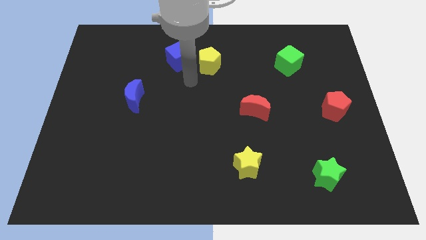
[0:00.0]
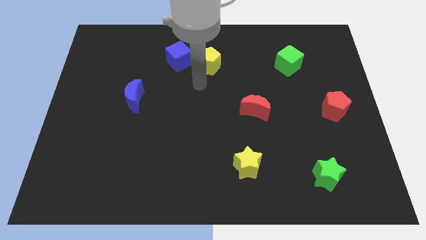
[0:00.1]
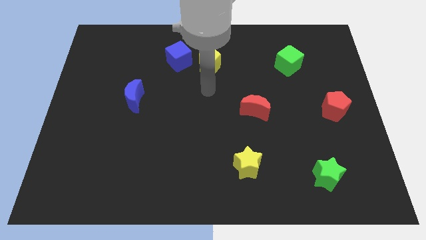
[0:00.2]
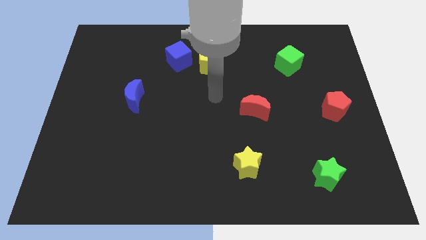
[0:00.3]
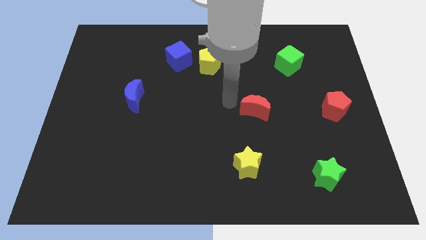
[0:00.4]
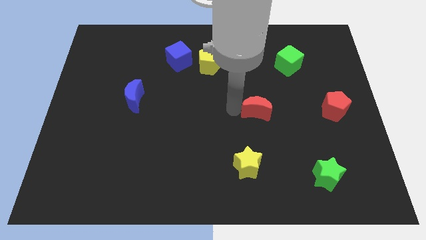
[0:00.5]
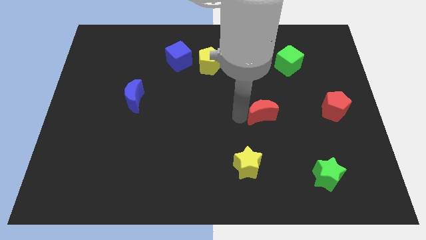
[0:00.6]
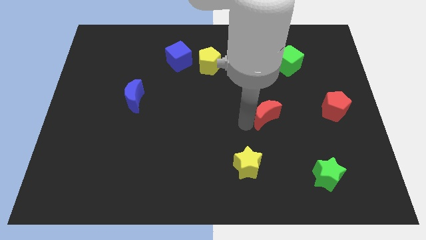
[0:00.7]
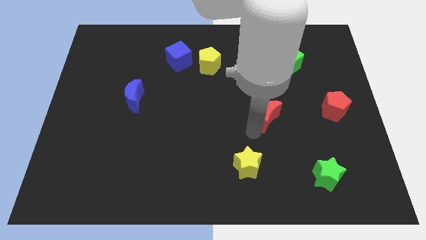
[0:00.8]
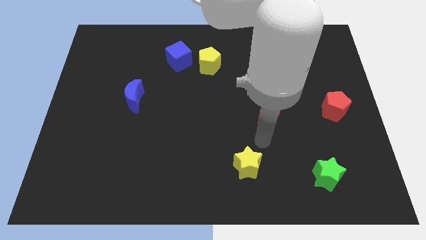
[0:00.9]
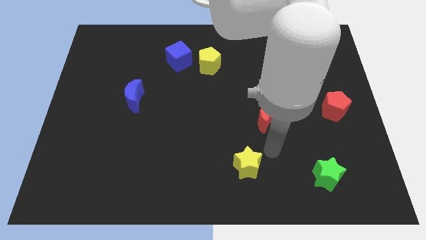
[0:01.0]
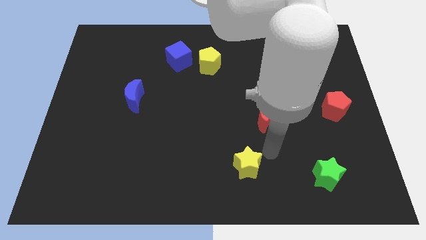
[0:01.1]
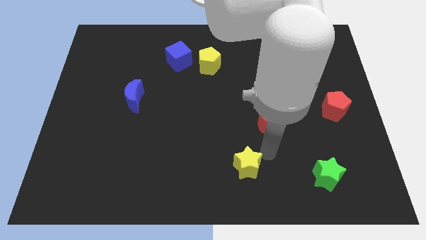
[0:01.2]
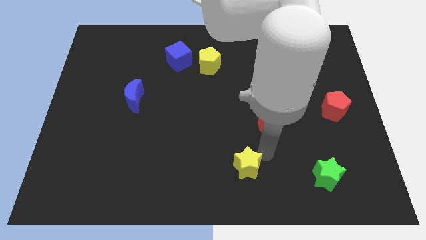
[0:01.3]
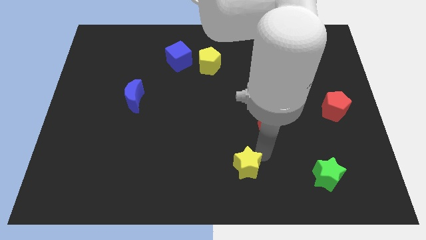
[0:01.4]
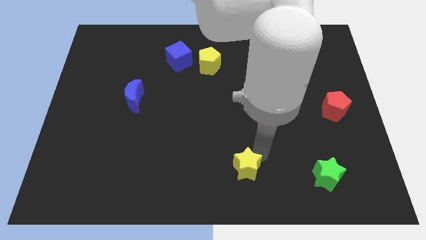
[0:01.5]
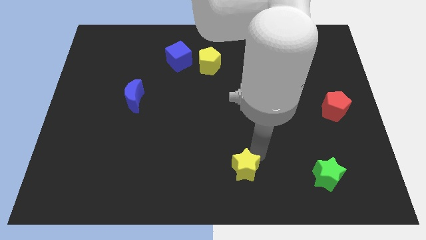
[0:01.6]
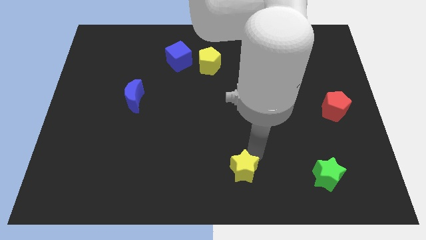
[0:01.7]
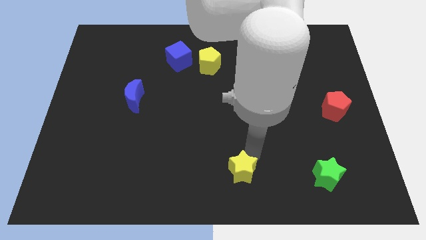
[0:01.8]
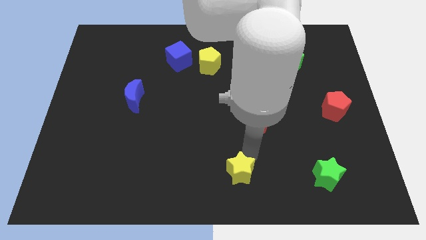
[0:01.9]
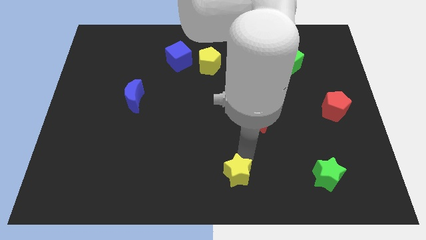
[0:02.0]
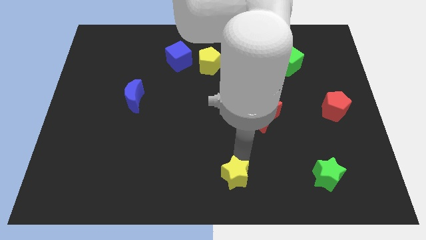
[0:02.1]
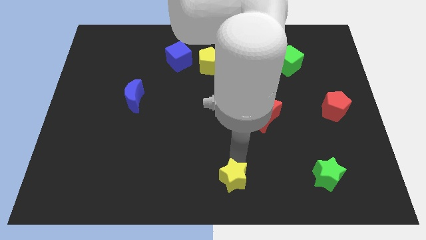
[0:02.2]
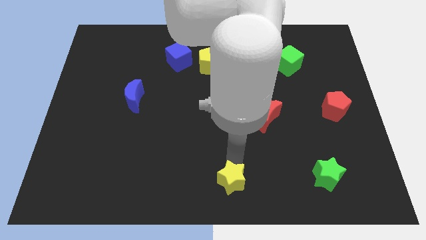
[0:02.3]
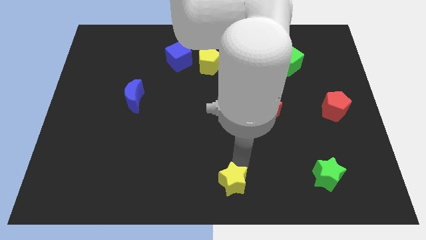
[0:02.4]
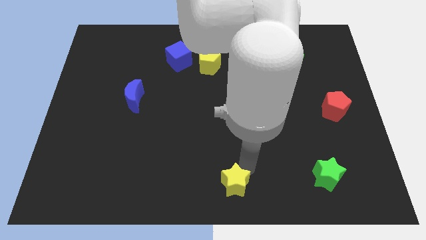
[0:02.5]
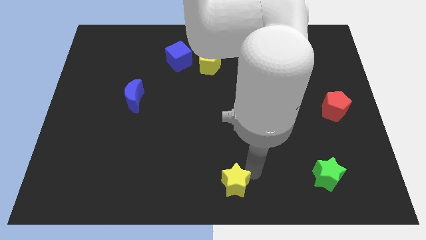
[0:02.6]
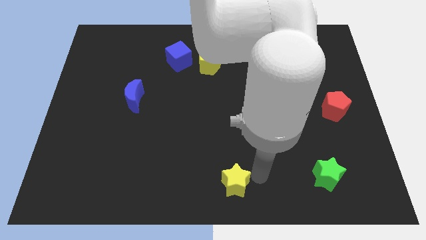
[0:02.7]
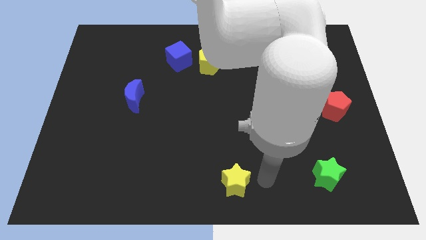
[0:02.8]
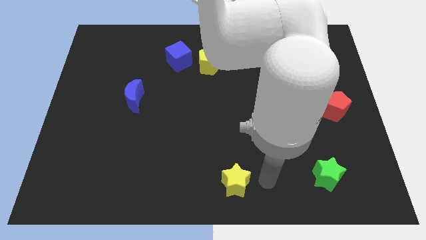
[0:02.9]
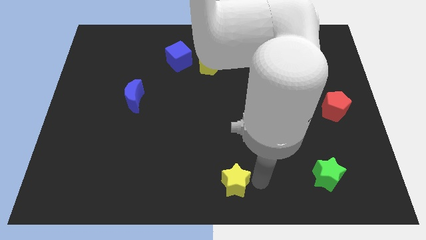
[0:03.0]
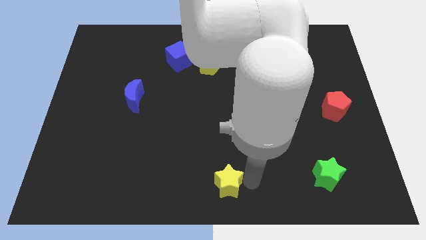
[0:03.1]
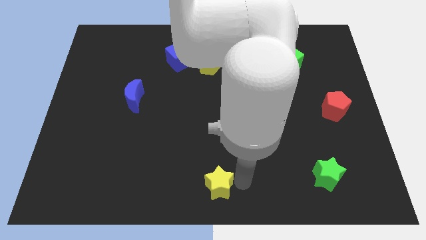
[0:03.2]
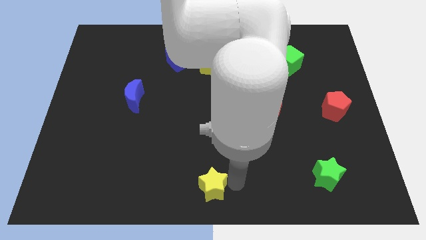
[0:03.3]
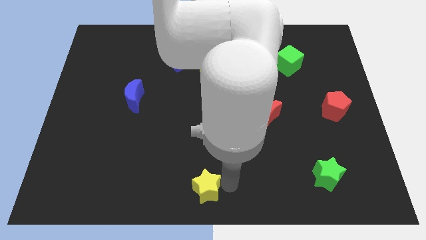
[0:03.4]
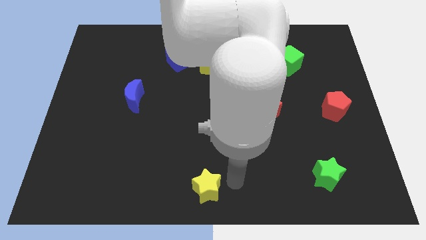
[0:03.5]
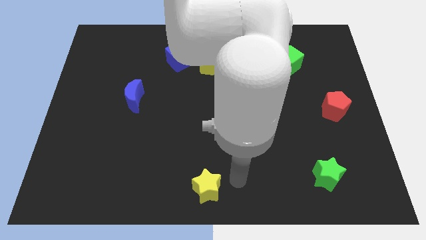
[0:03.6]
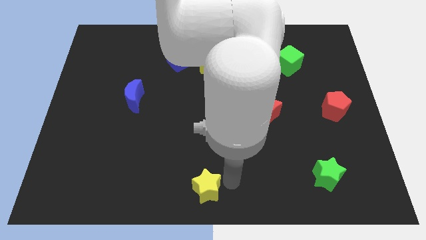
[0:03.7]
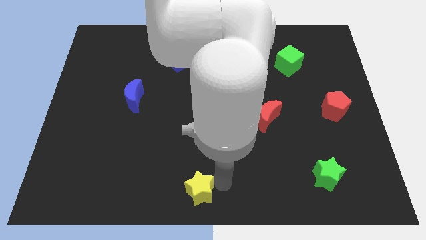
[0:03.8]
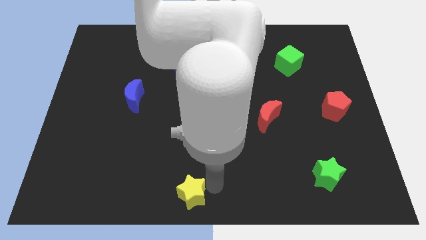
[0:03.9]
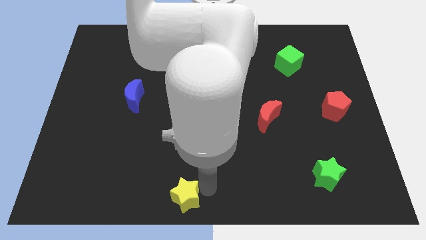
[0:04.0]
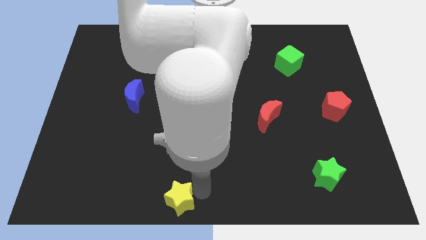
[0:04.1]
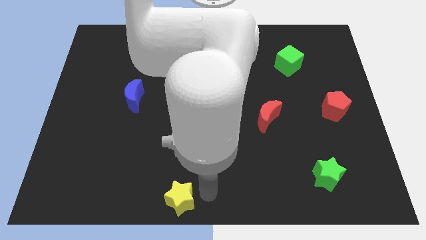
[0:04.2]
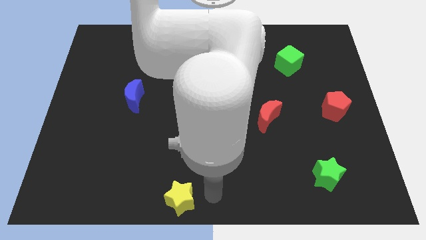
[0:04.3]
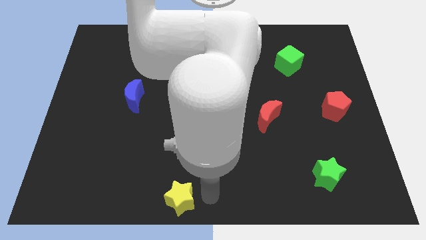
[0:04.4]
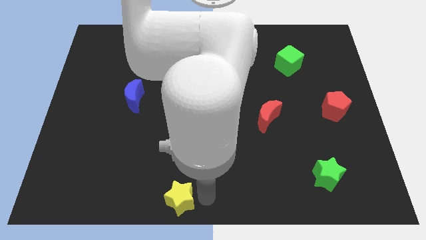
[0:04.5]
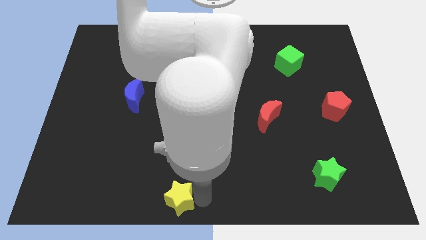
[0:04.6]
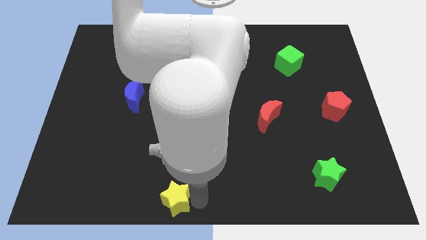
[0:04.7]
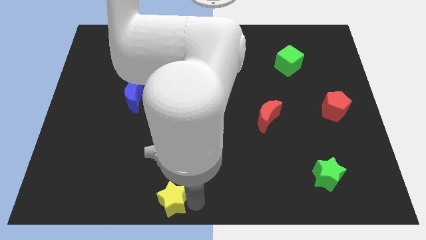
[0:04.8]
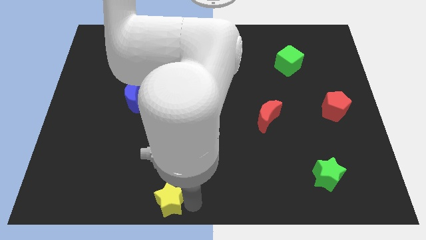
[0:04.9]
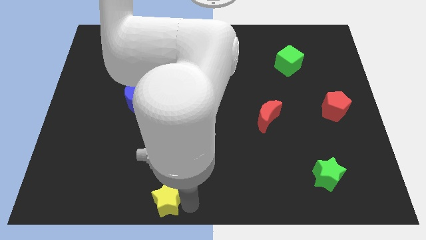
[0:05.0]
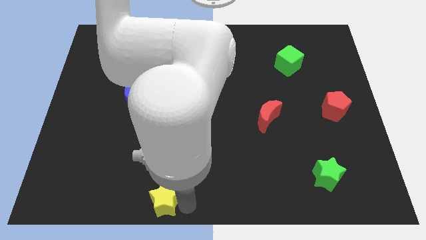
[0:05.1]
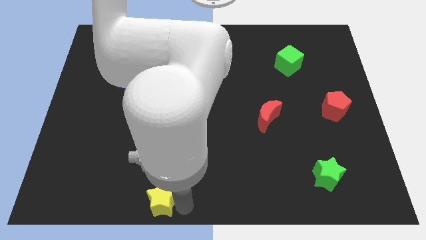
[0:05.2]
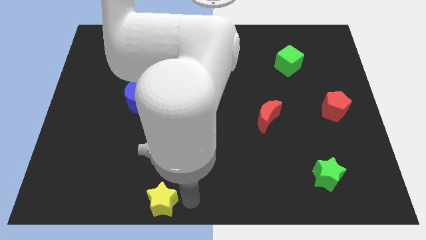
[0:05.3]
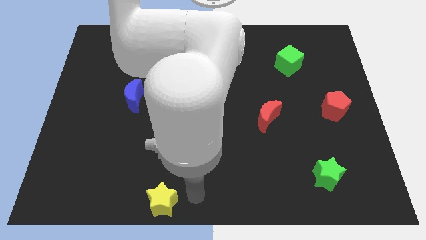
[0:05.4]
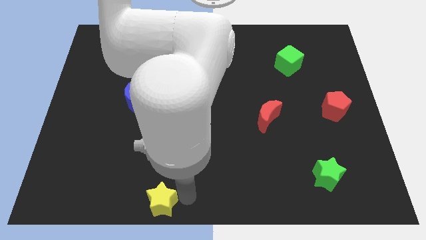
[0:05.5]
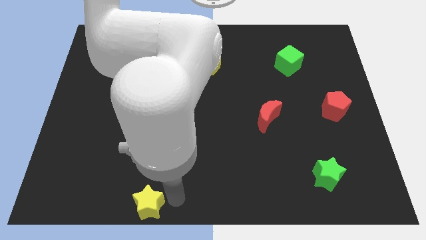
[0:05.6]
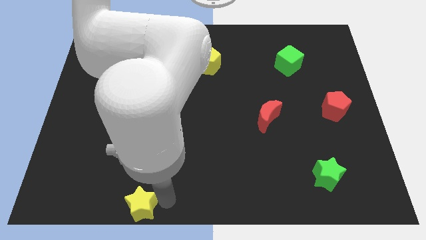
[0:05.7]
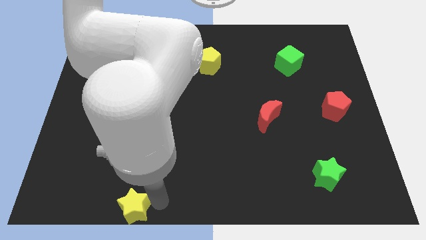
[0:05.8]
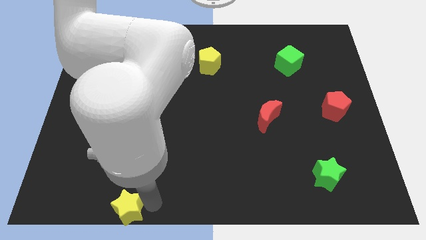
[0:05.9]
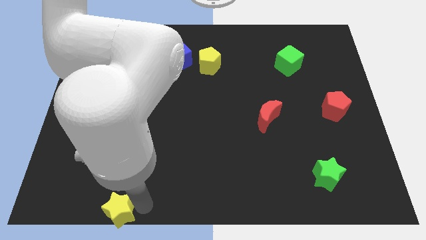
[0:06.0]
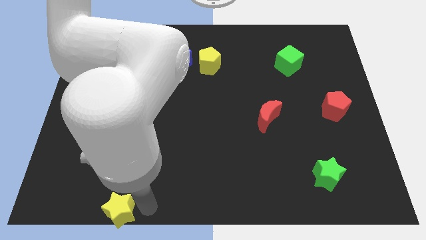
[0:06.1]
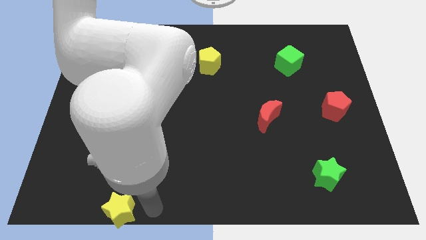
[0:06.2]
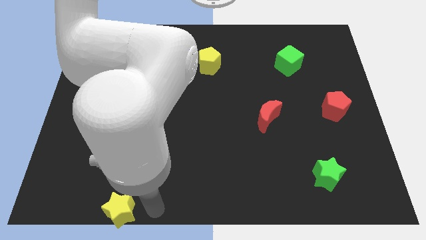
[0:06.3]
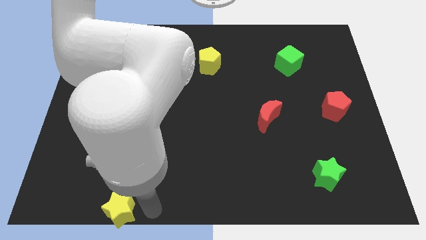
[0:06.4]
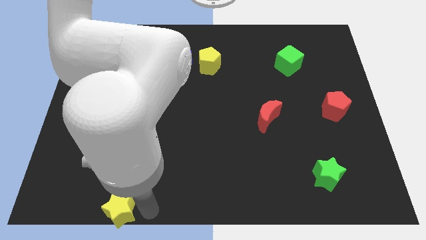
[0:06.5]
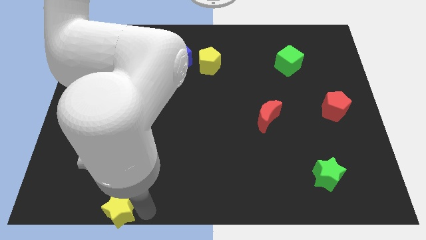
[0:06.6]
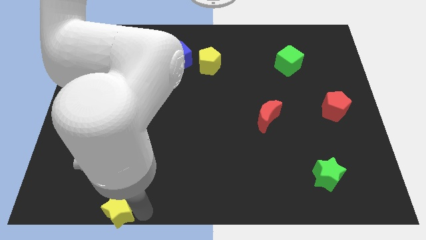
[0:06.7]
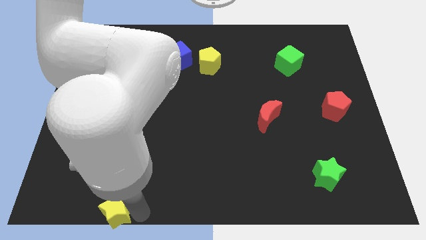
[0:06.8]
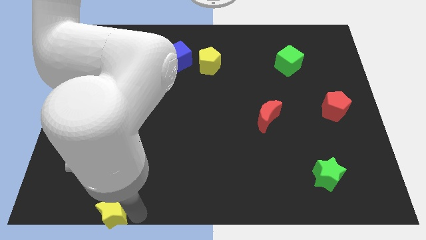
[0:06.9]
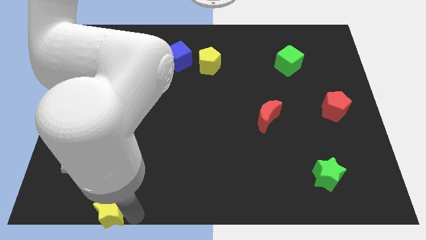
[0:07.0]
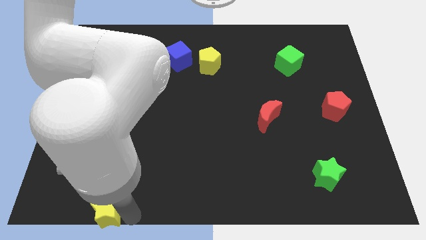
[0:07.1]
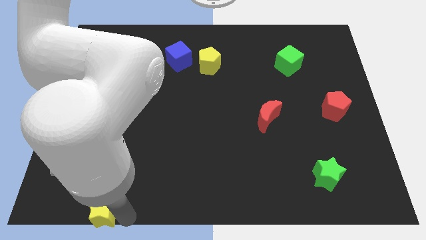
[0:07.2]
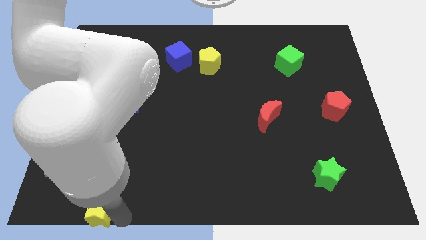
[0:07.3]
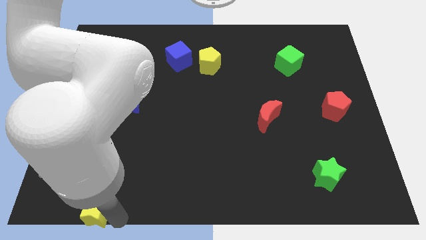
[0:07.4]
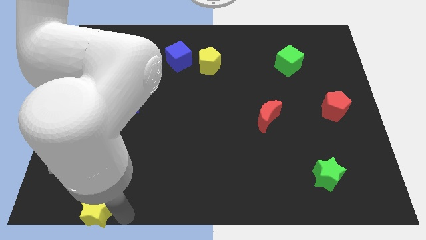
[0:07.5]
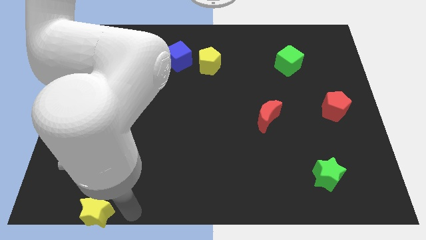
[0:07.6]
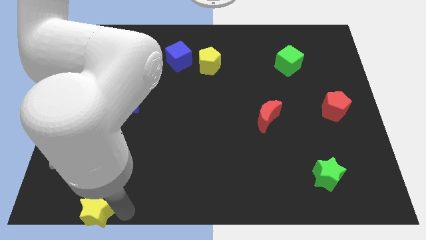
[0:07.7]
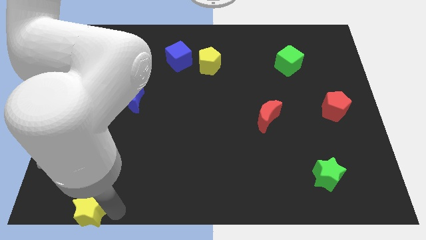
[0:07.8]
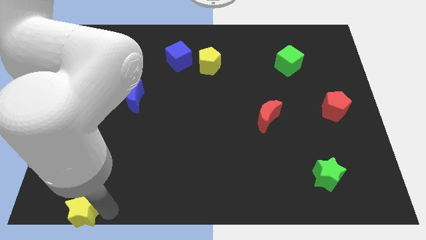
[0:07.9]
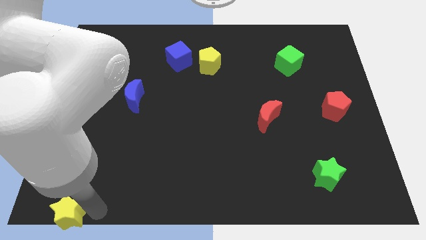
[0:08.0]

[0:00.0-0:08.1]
move the yellow star to the bottom left of the board
